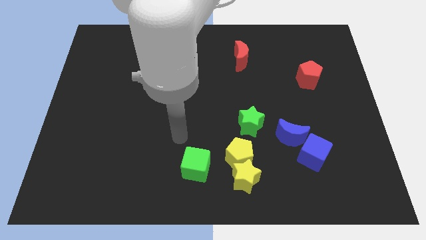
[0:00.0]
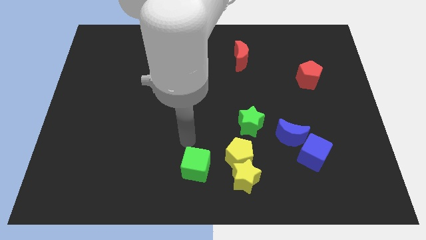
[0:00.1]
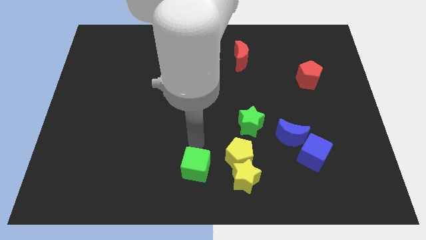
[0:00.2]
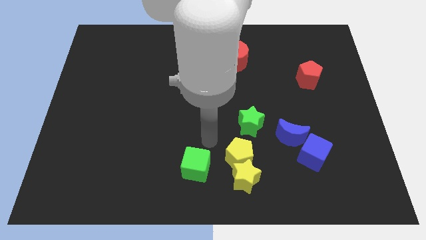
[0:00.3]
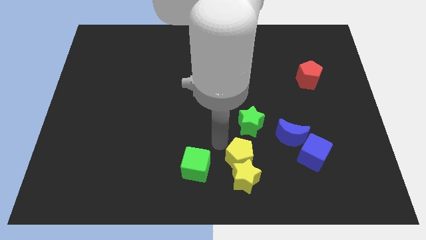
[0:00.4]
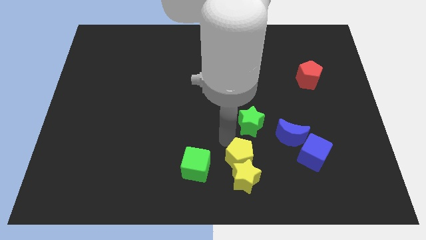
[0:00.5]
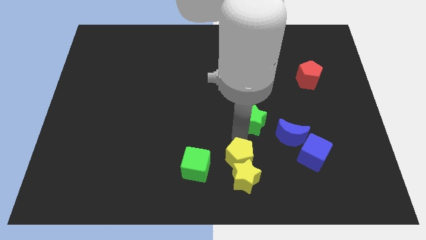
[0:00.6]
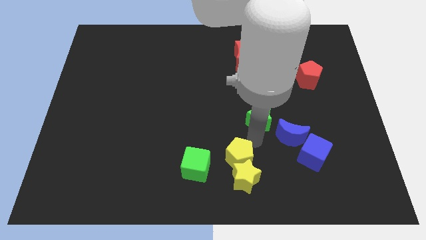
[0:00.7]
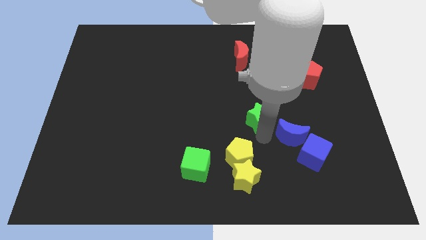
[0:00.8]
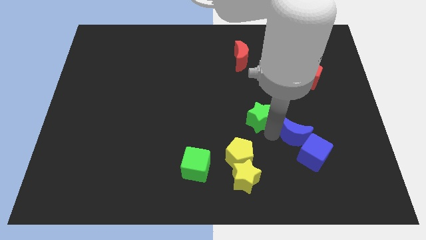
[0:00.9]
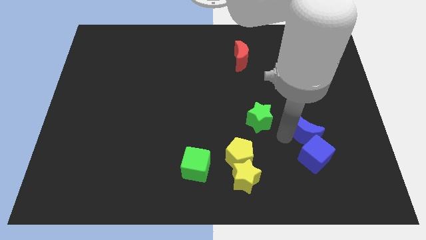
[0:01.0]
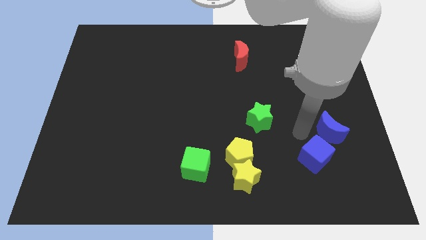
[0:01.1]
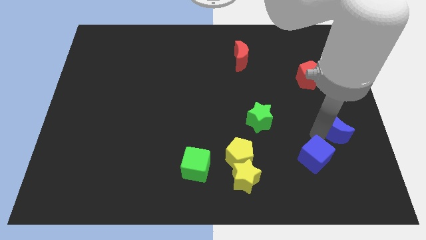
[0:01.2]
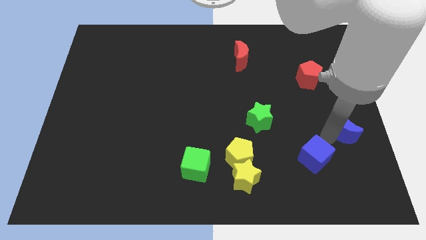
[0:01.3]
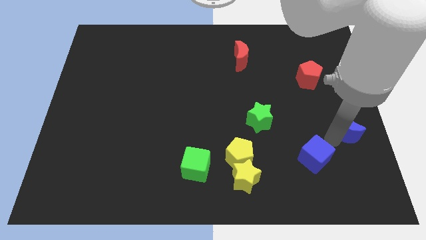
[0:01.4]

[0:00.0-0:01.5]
move the blue cube away from the blue moon

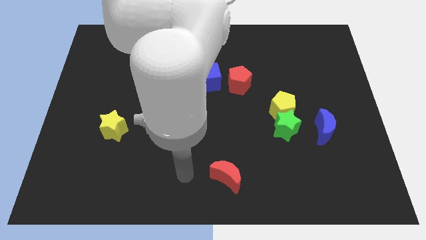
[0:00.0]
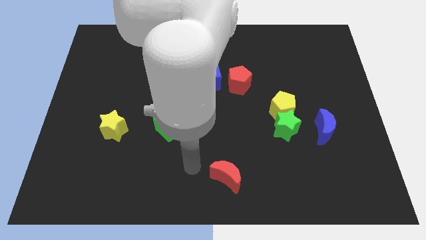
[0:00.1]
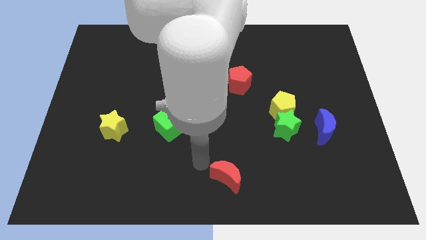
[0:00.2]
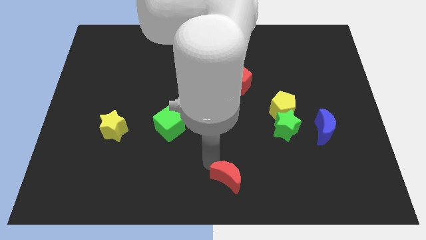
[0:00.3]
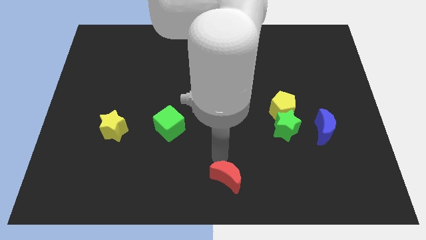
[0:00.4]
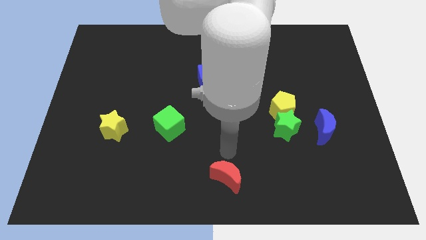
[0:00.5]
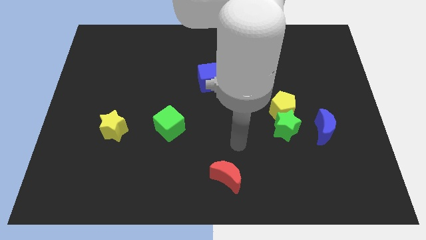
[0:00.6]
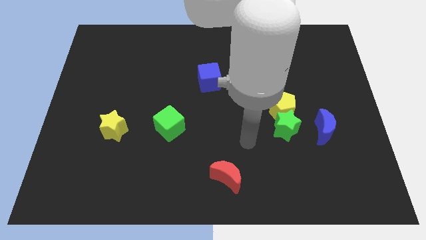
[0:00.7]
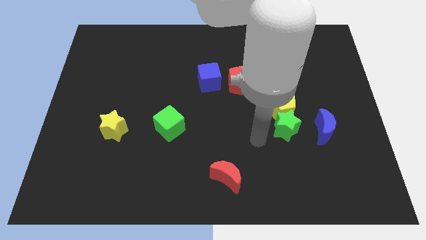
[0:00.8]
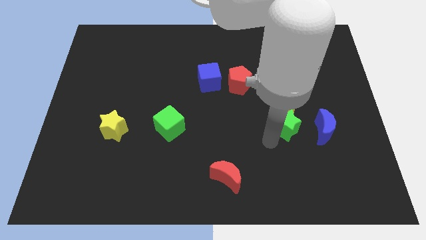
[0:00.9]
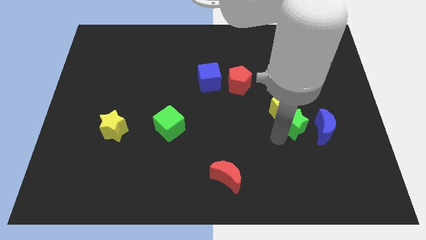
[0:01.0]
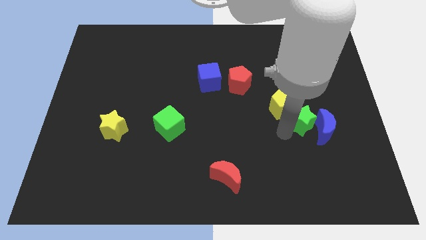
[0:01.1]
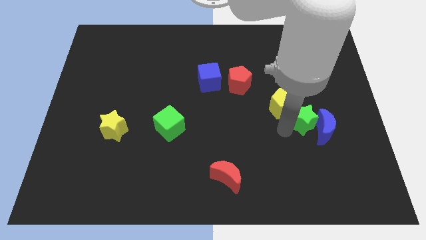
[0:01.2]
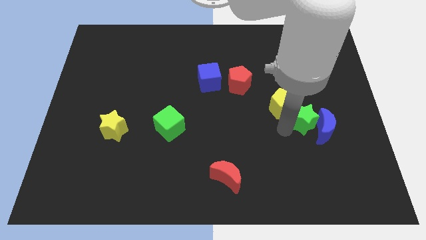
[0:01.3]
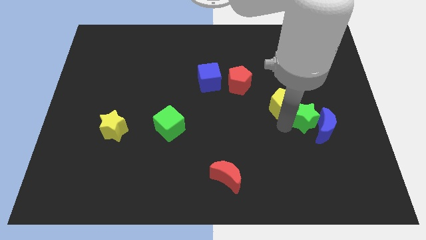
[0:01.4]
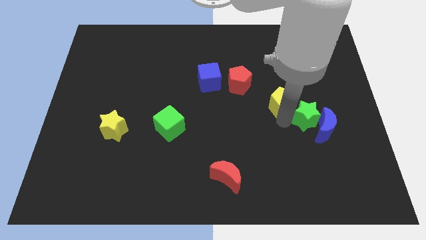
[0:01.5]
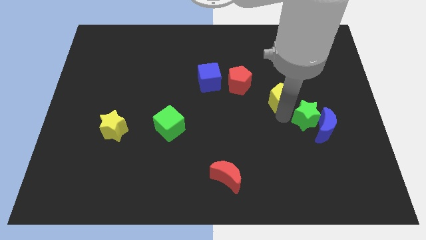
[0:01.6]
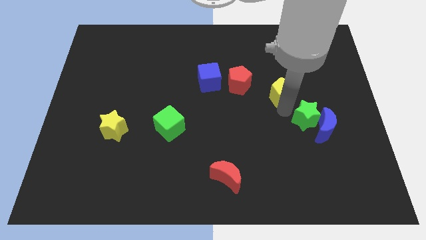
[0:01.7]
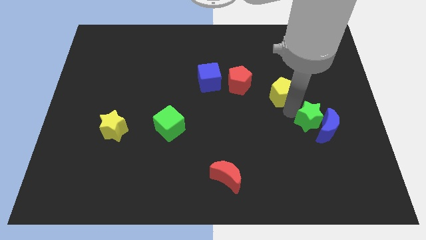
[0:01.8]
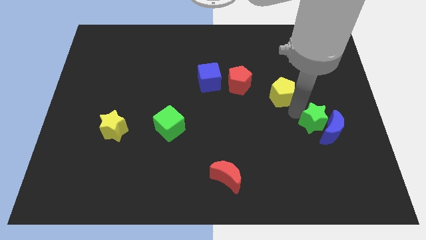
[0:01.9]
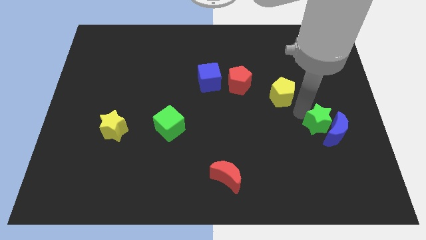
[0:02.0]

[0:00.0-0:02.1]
pull the yellow pentagon apart from the green star

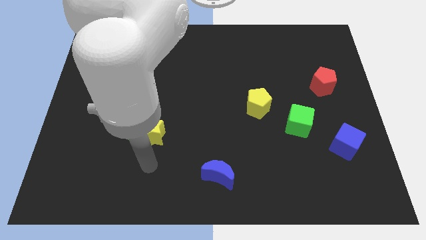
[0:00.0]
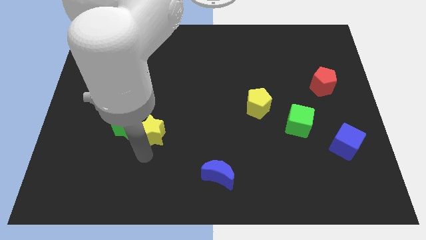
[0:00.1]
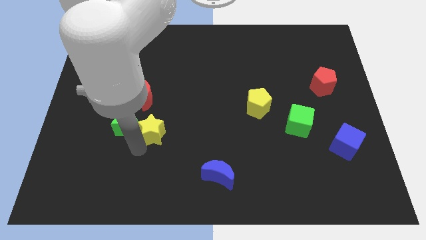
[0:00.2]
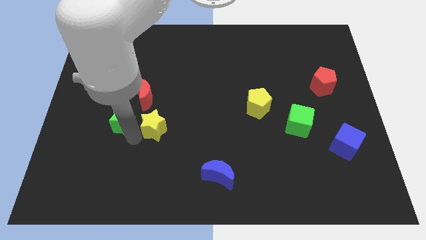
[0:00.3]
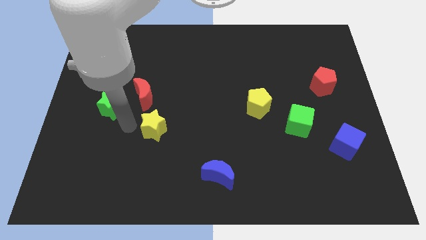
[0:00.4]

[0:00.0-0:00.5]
separate the yellow star from the green star

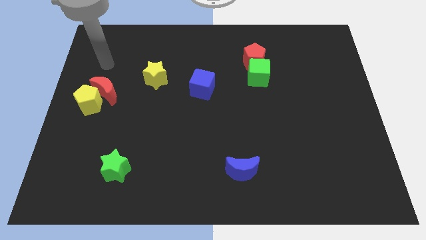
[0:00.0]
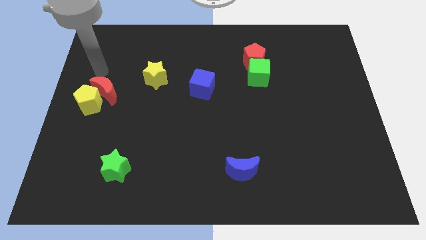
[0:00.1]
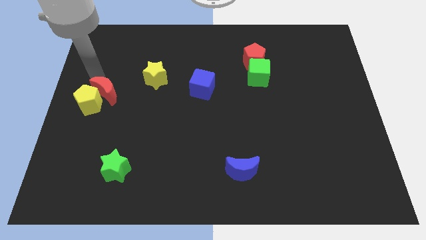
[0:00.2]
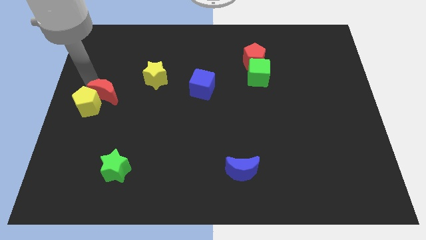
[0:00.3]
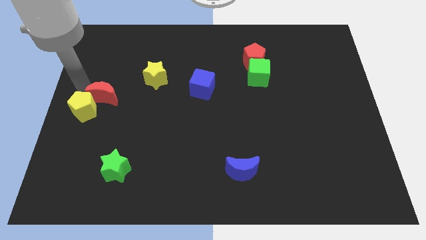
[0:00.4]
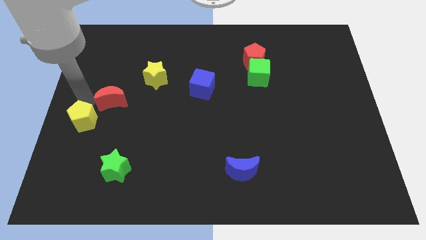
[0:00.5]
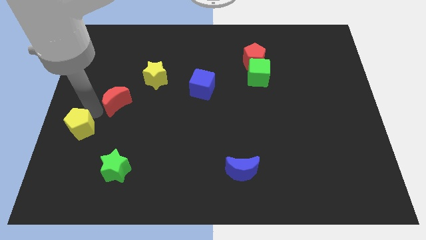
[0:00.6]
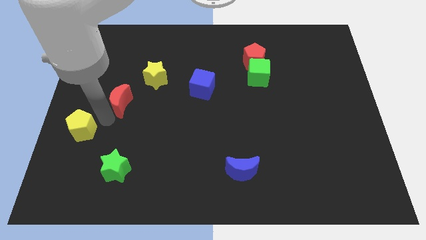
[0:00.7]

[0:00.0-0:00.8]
move the red moon away from the yellow pentagon

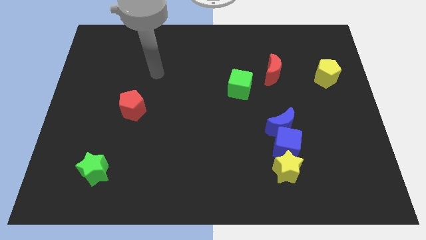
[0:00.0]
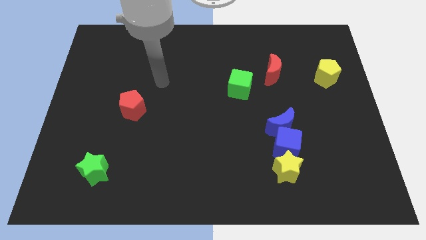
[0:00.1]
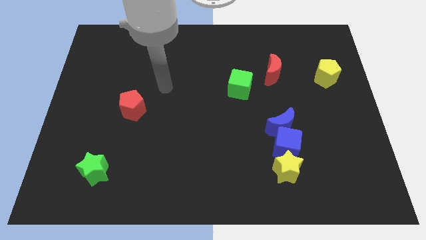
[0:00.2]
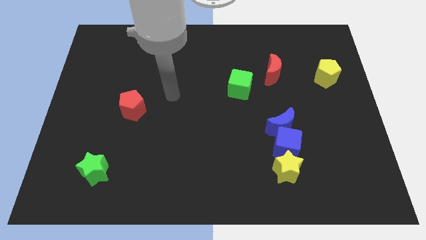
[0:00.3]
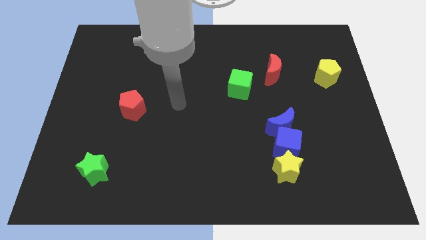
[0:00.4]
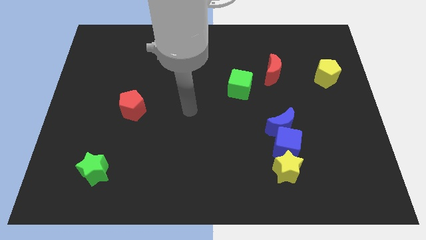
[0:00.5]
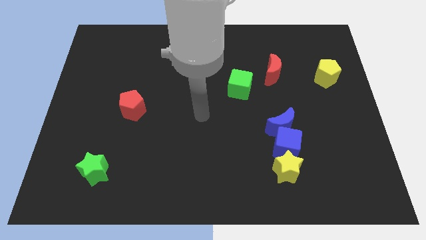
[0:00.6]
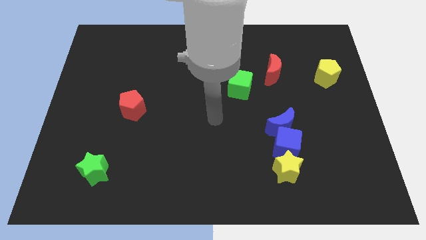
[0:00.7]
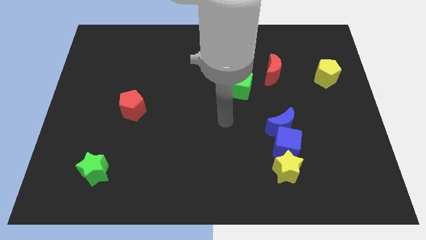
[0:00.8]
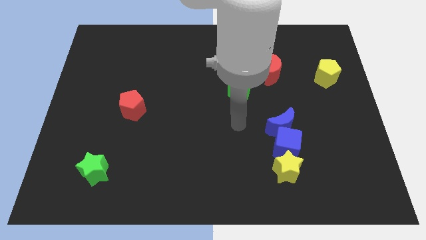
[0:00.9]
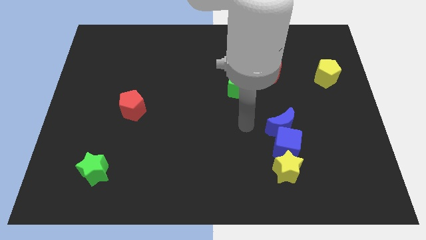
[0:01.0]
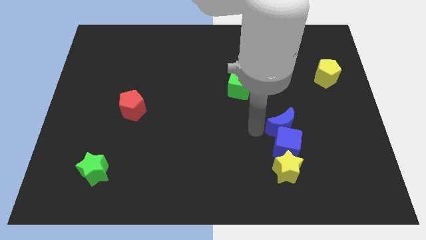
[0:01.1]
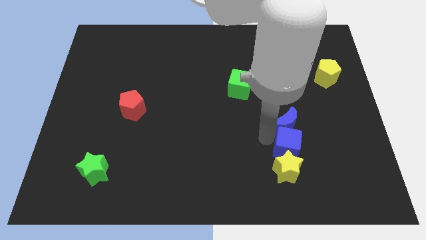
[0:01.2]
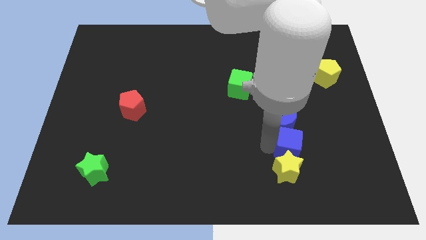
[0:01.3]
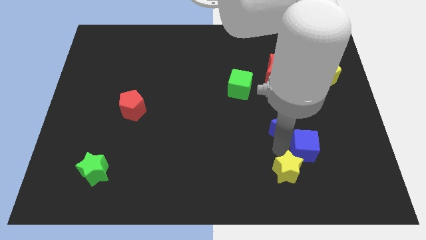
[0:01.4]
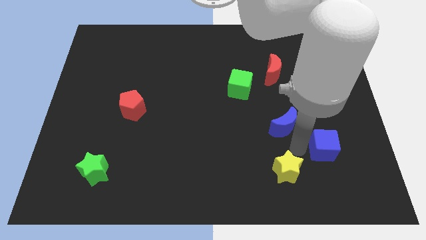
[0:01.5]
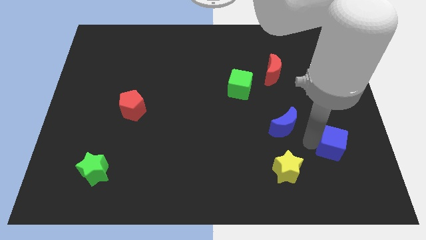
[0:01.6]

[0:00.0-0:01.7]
move the blue moon away from the blue cube

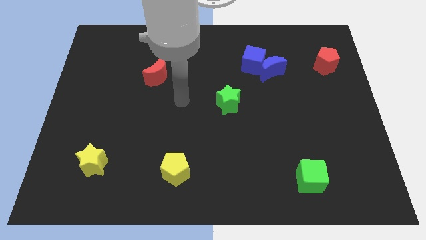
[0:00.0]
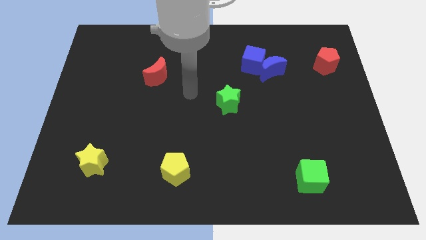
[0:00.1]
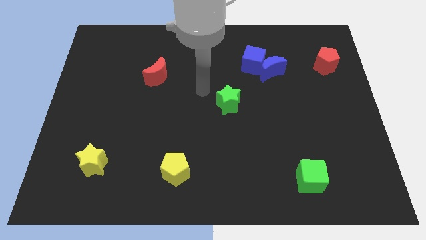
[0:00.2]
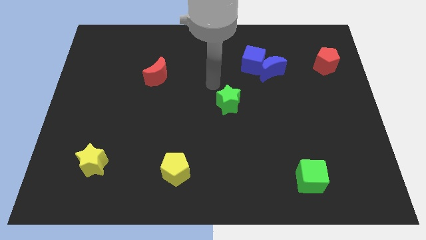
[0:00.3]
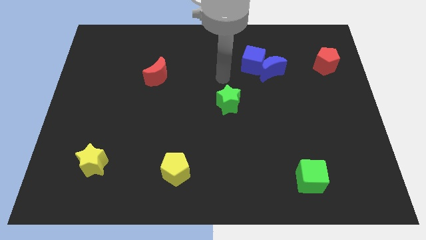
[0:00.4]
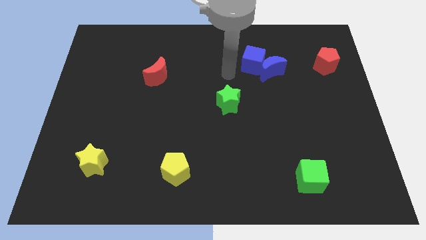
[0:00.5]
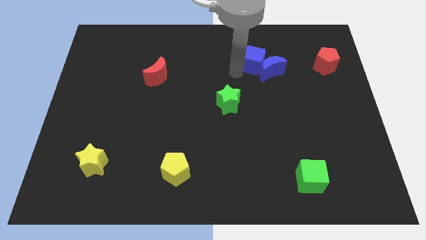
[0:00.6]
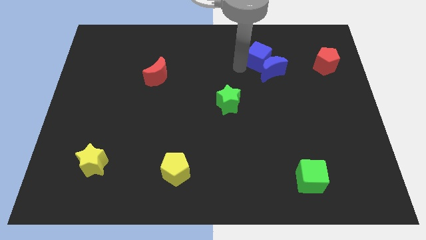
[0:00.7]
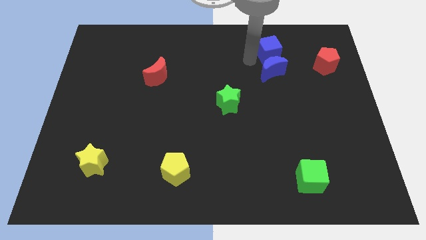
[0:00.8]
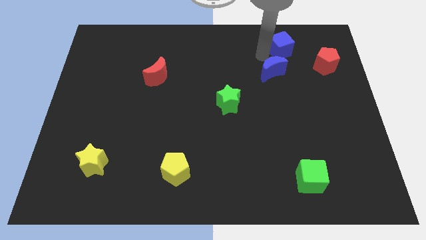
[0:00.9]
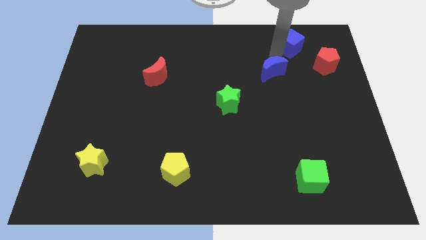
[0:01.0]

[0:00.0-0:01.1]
separate the blue moon from the blue cube

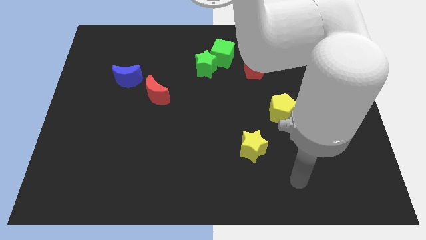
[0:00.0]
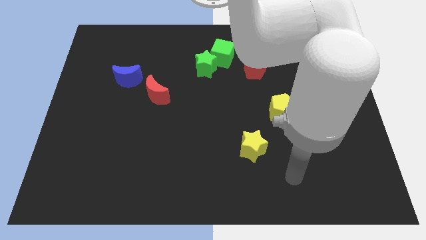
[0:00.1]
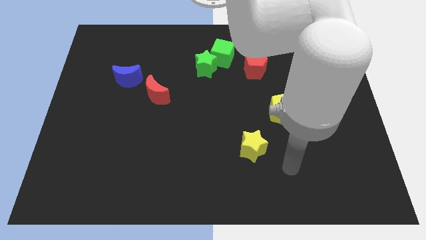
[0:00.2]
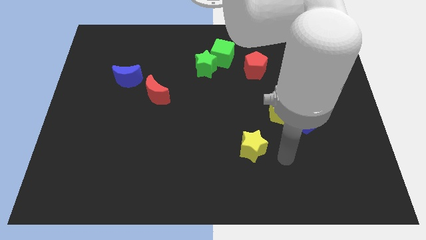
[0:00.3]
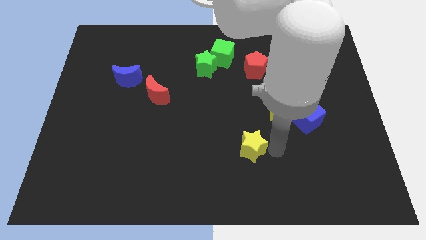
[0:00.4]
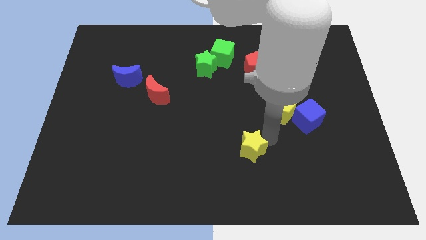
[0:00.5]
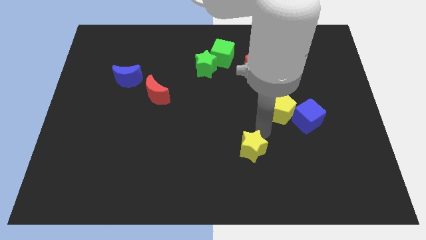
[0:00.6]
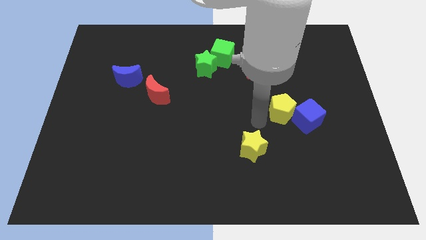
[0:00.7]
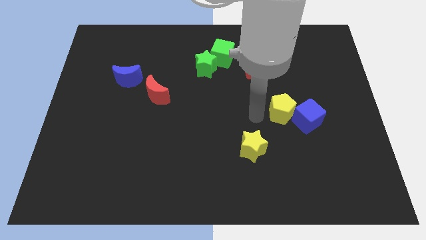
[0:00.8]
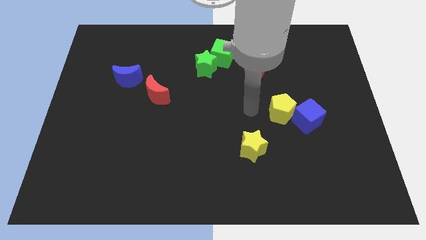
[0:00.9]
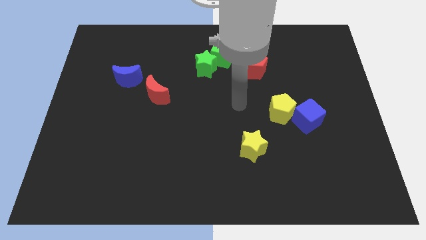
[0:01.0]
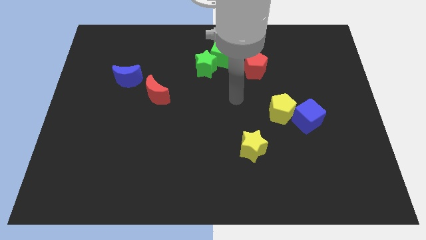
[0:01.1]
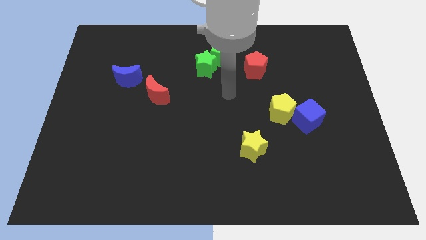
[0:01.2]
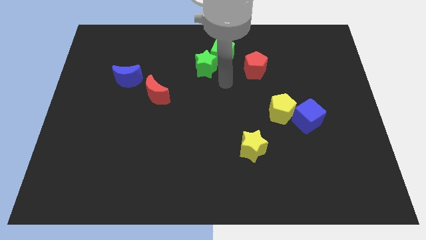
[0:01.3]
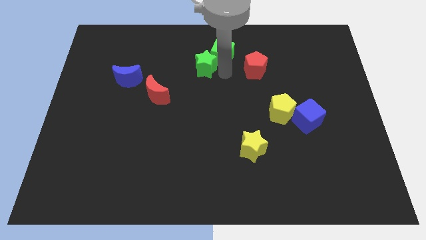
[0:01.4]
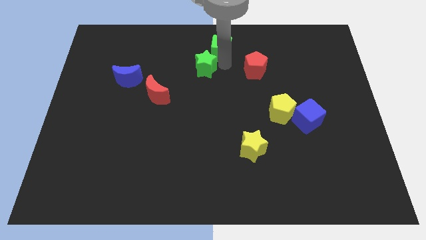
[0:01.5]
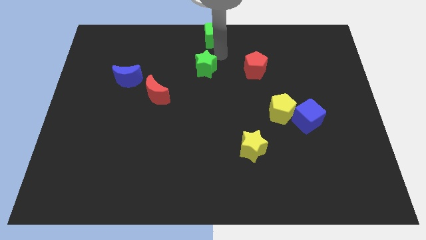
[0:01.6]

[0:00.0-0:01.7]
separate the green star from the green cube
